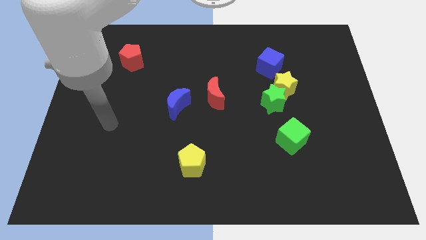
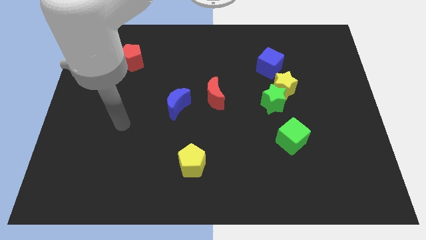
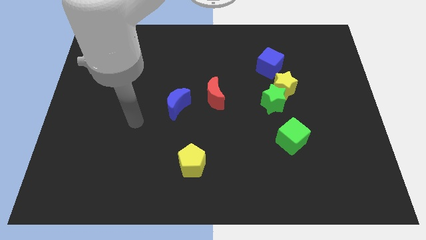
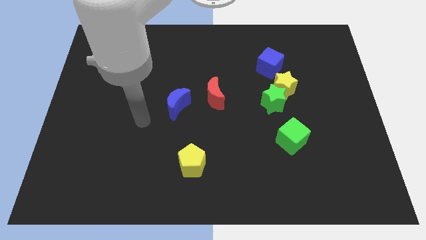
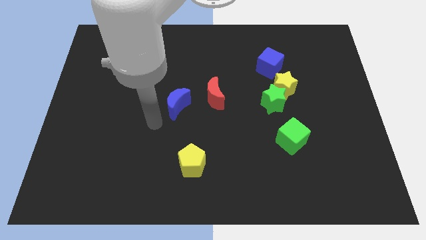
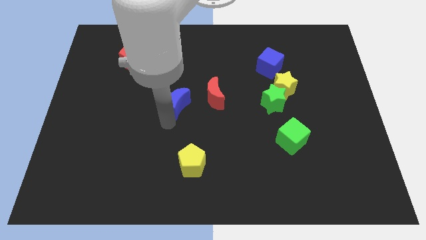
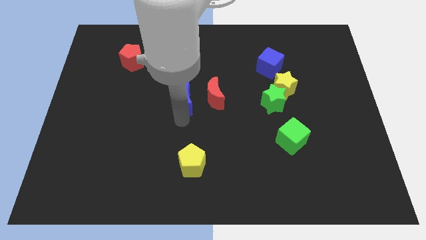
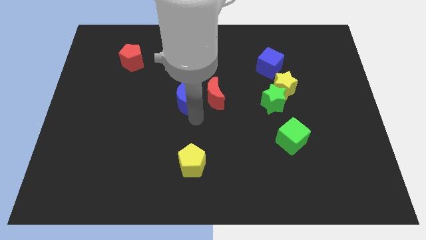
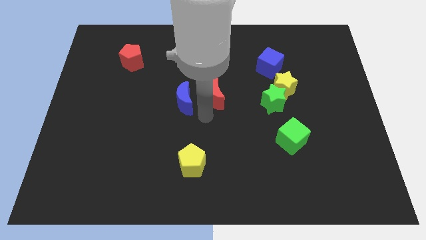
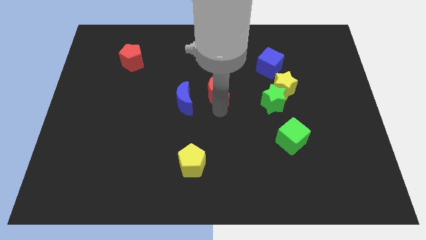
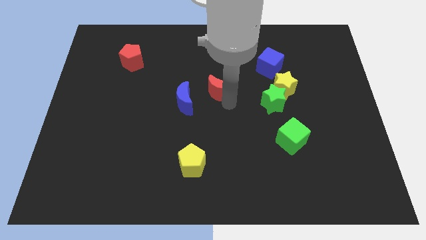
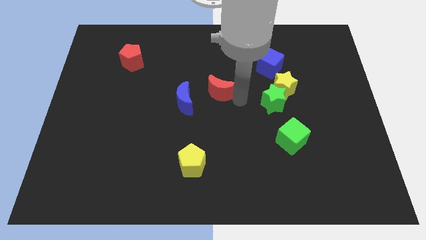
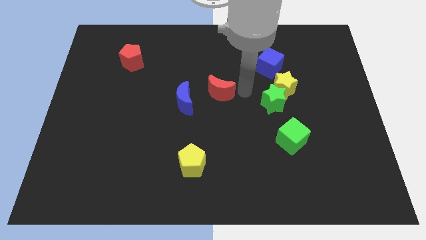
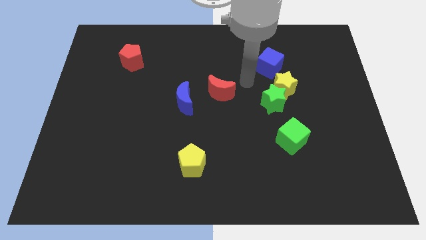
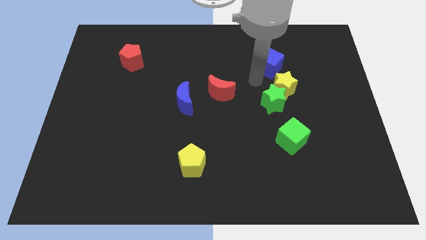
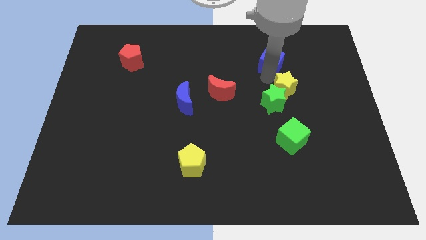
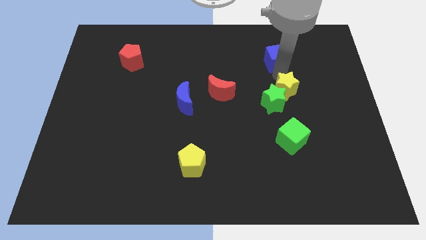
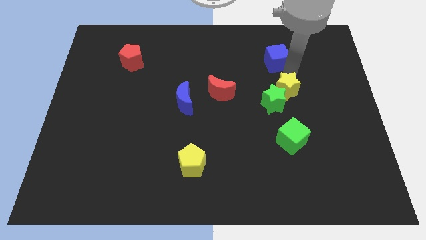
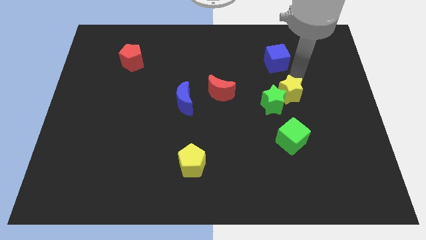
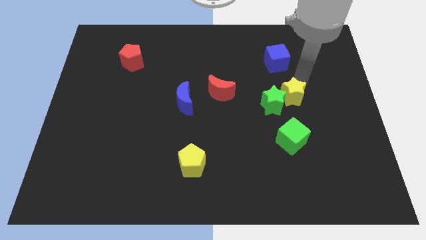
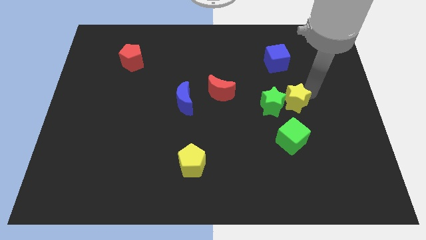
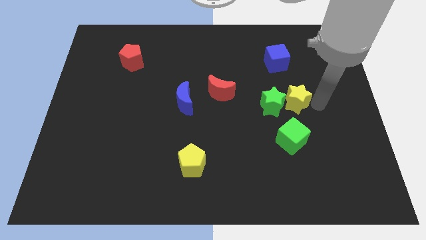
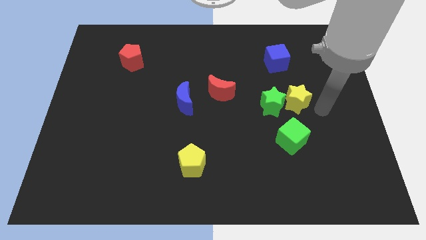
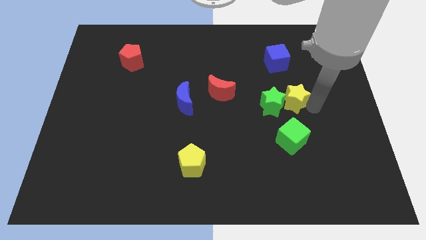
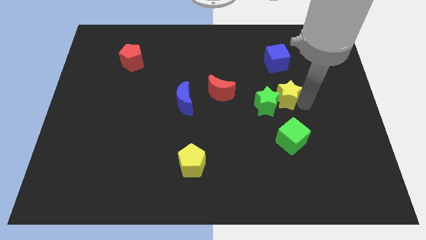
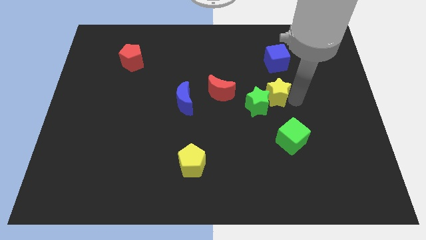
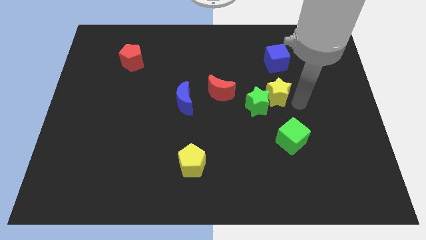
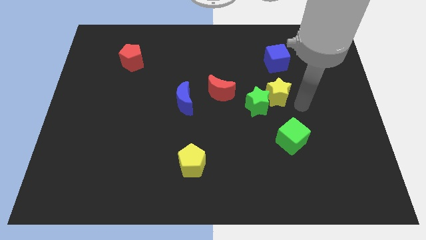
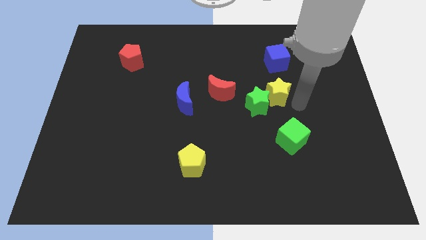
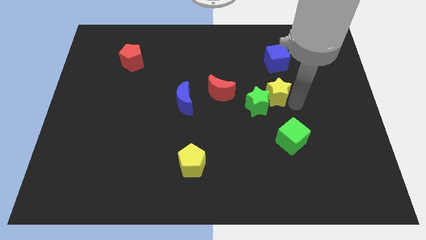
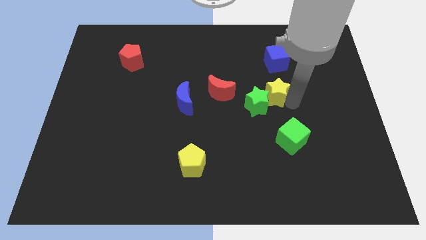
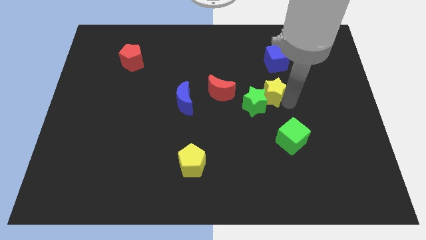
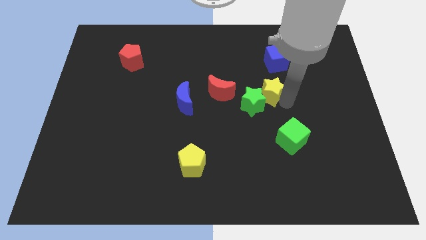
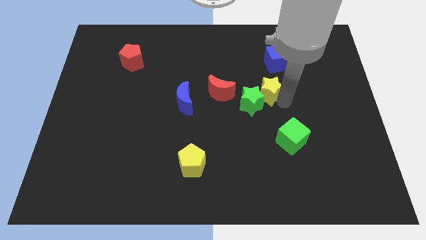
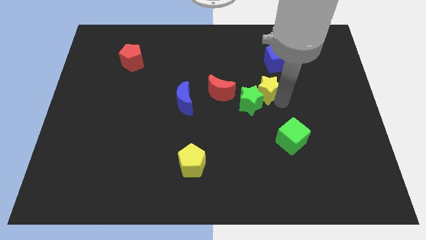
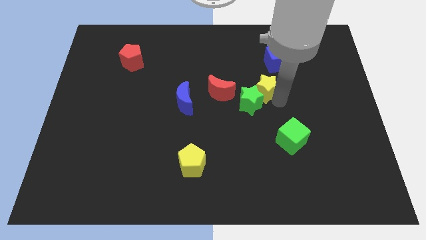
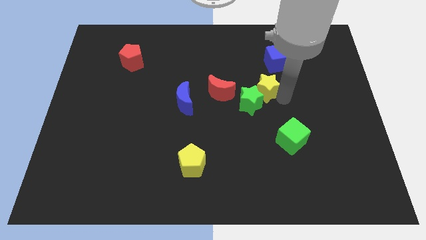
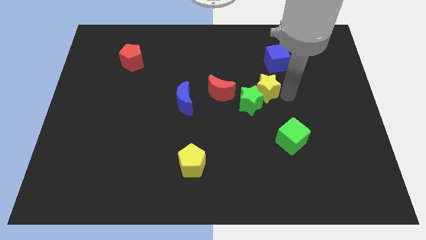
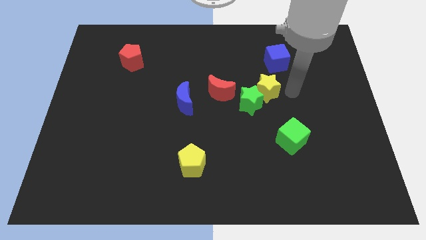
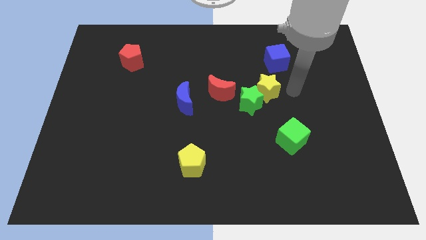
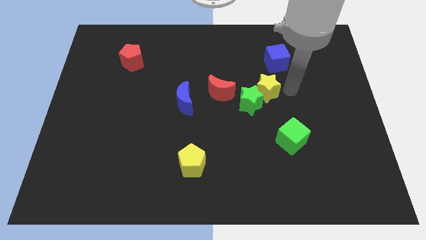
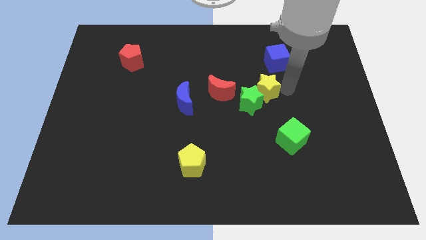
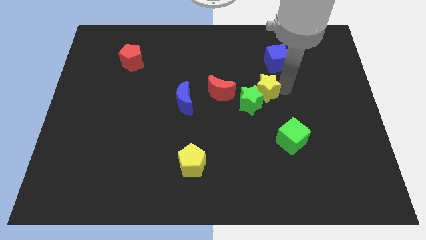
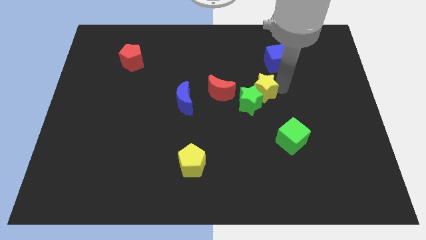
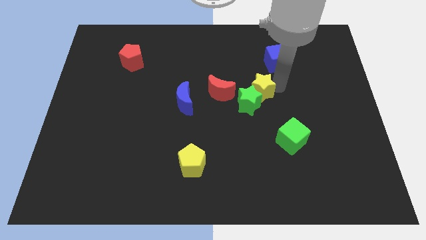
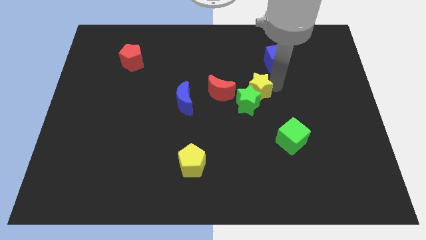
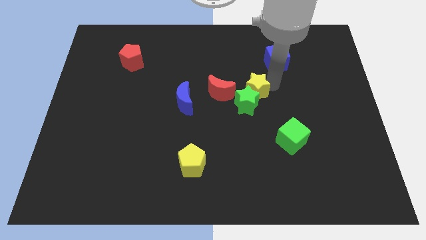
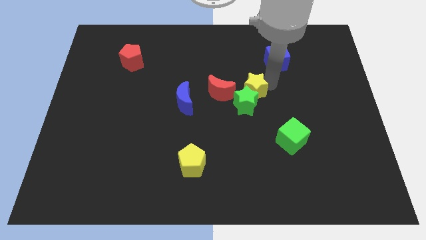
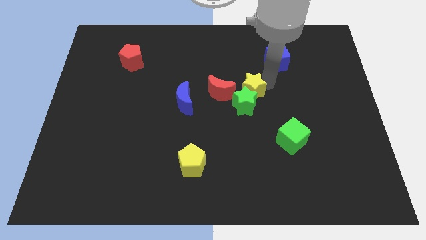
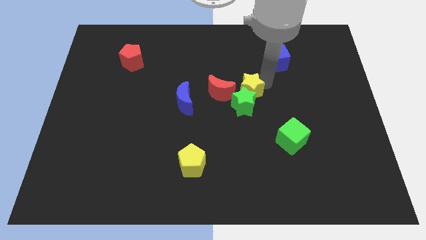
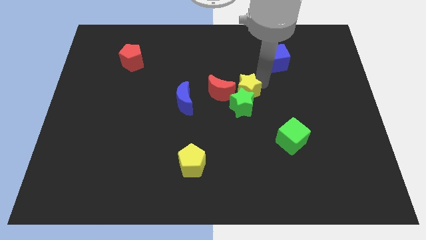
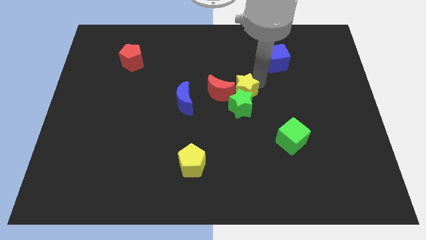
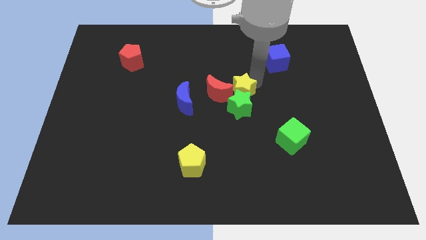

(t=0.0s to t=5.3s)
slide the yellow star close to the red moon

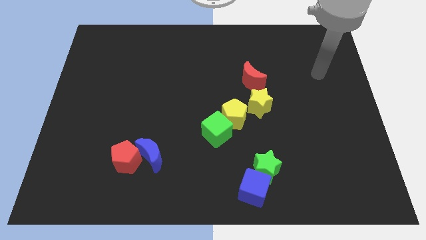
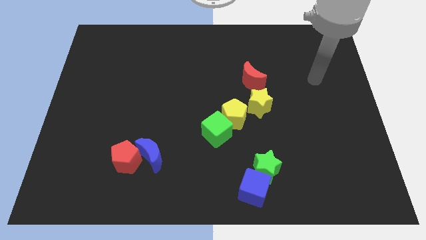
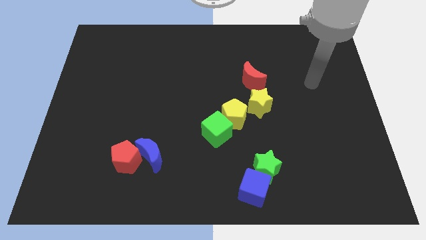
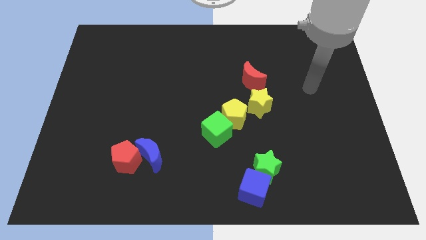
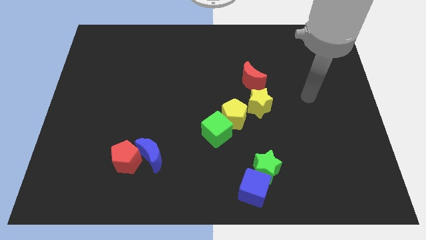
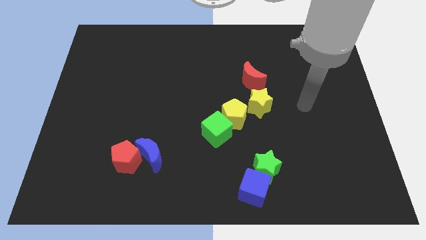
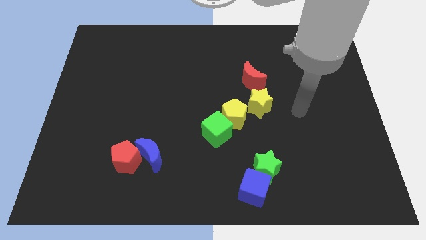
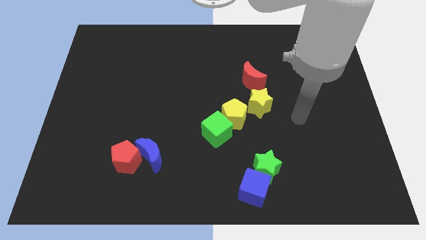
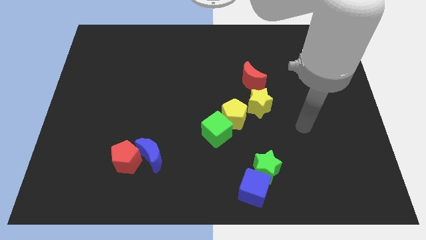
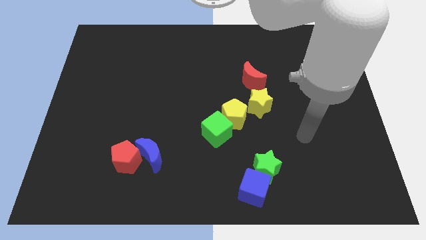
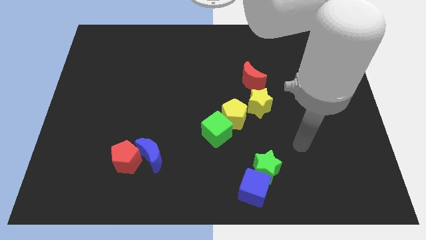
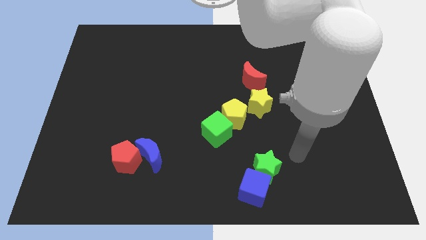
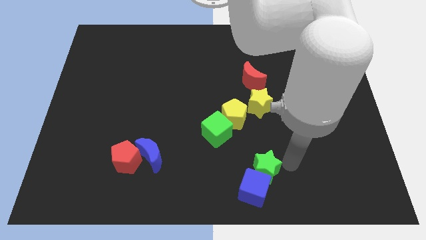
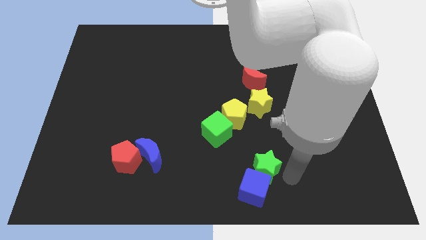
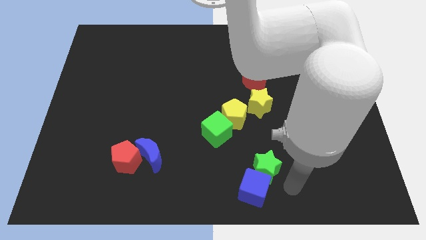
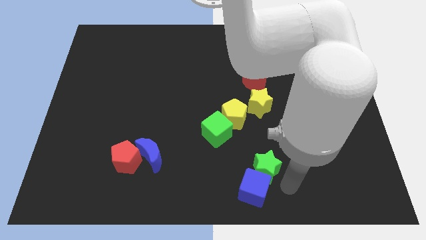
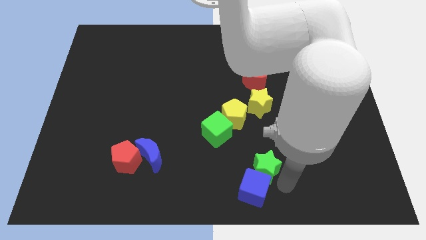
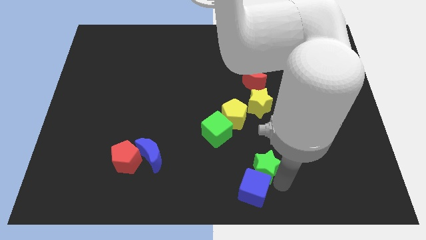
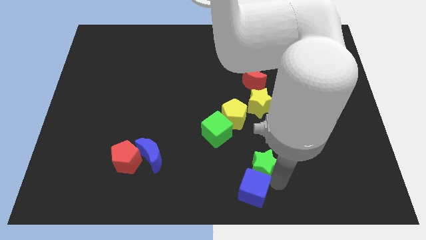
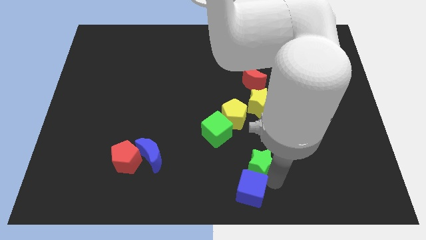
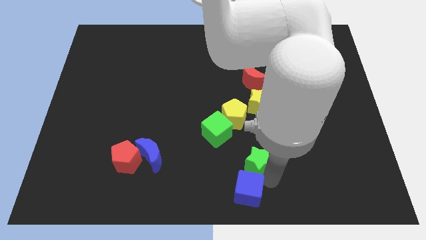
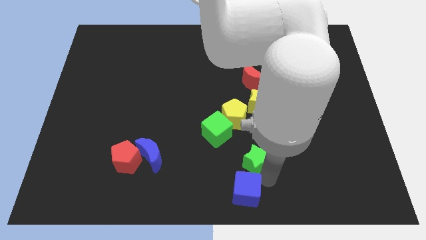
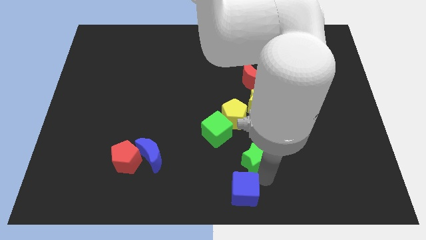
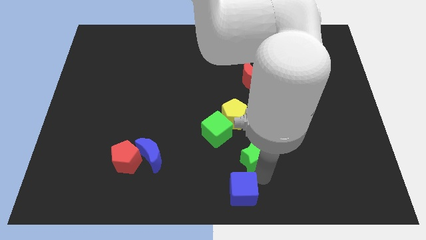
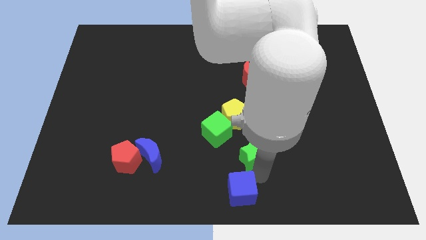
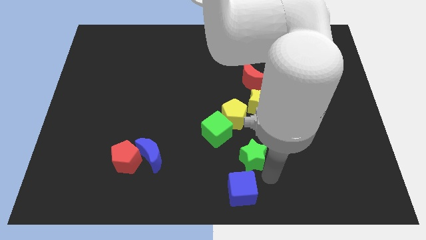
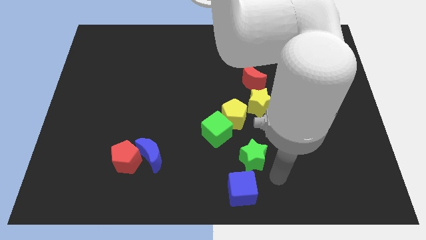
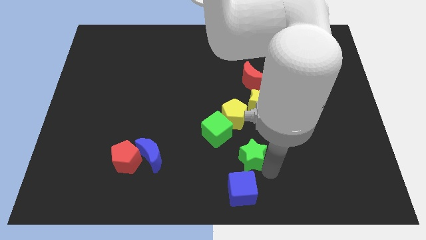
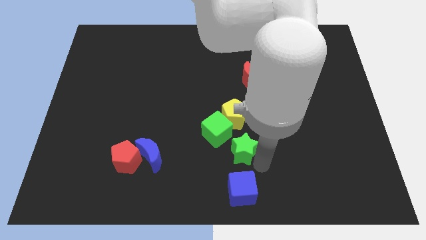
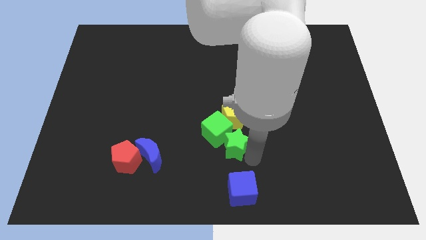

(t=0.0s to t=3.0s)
push the green star next to the green cube
